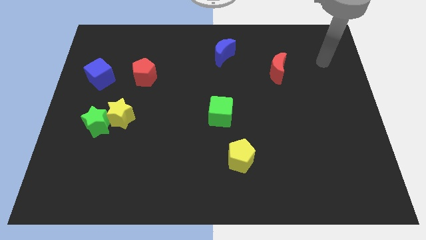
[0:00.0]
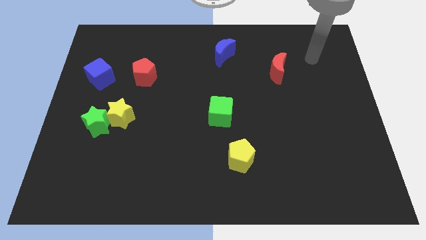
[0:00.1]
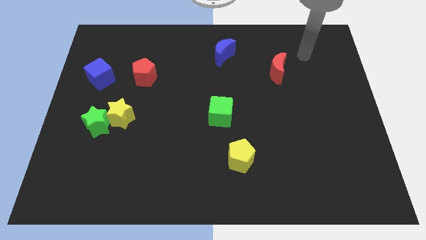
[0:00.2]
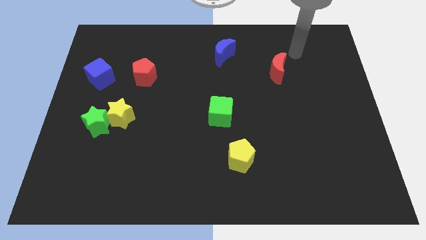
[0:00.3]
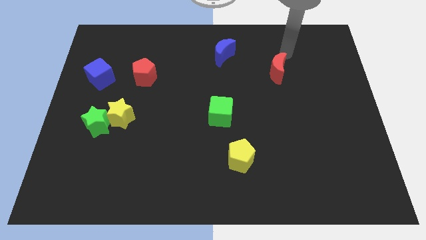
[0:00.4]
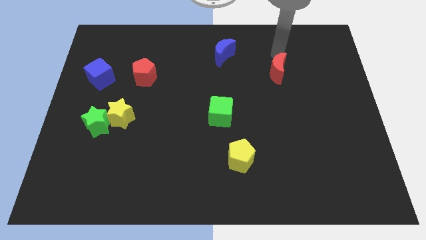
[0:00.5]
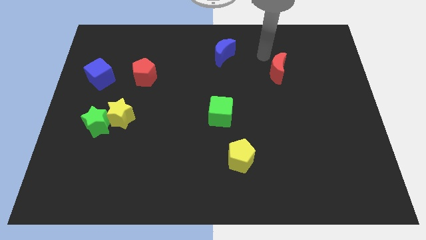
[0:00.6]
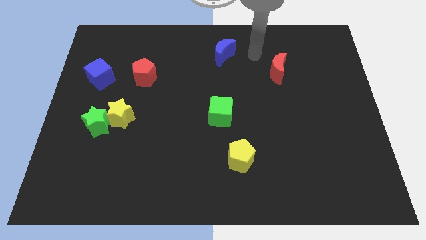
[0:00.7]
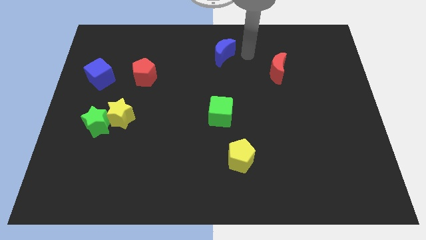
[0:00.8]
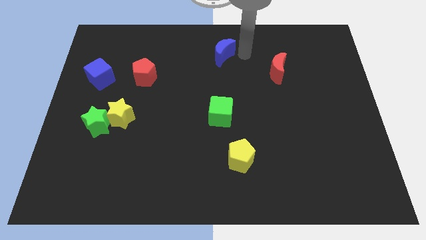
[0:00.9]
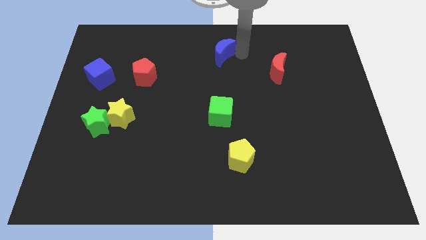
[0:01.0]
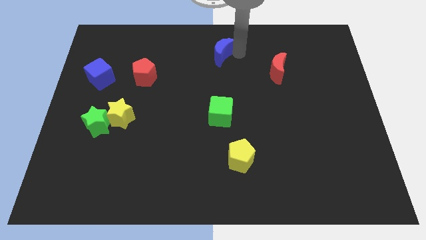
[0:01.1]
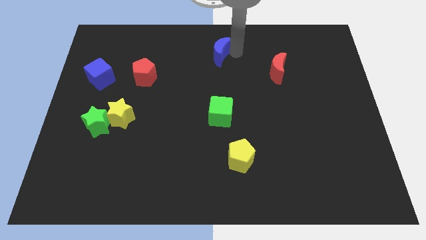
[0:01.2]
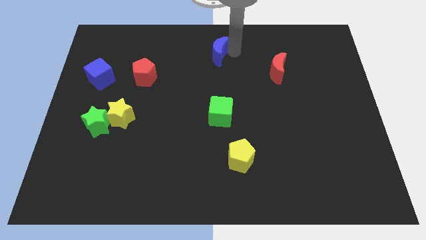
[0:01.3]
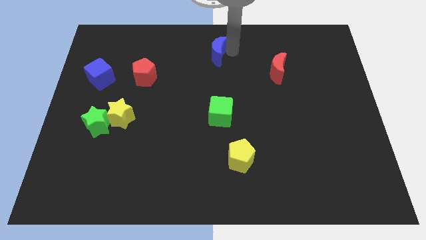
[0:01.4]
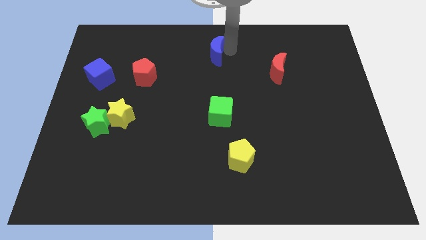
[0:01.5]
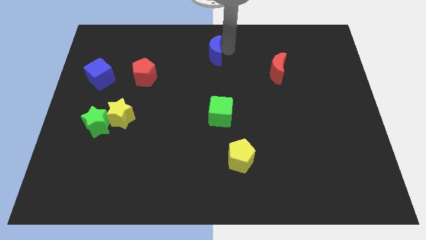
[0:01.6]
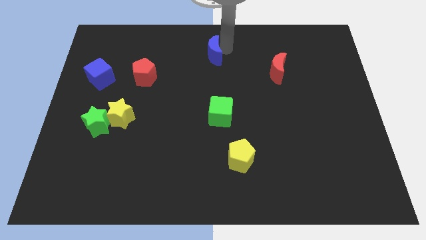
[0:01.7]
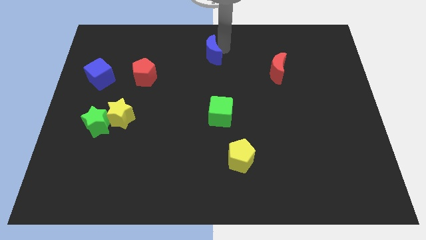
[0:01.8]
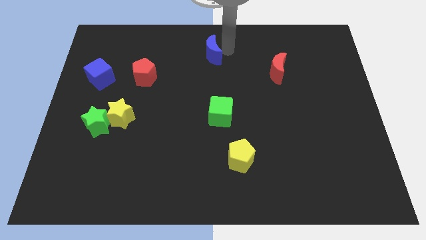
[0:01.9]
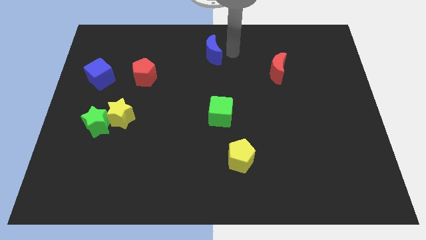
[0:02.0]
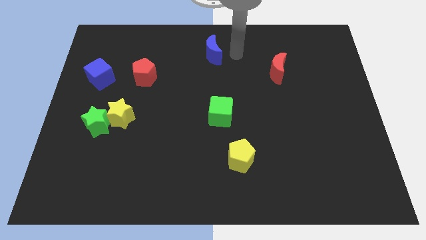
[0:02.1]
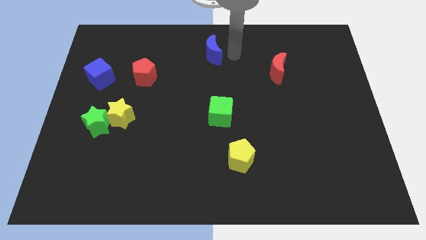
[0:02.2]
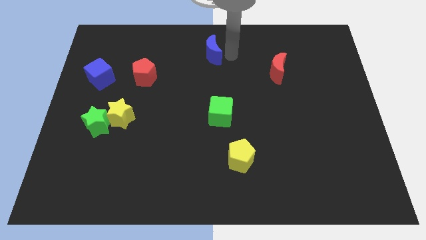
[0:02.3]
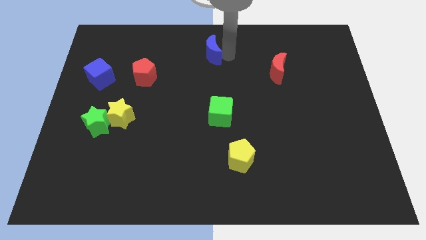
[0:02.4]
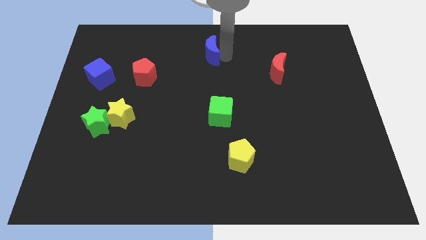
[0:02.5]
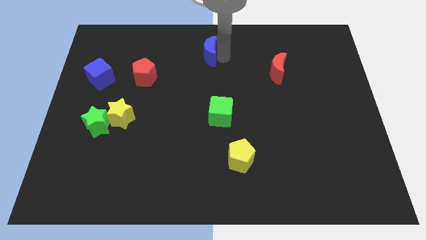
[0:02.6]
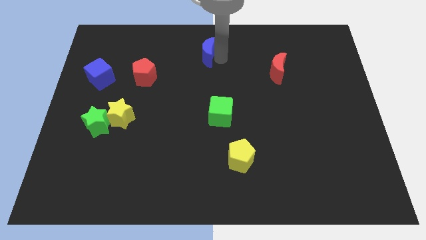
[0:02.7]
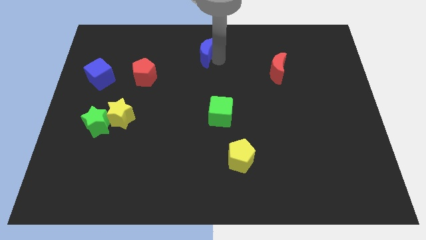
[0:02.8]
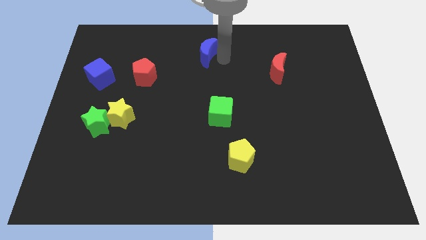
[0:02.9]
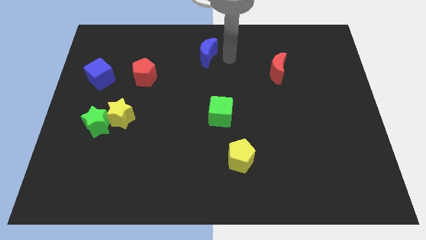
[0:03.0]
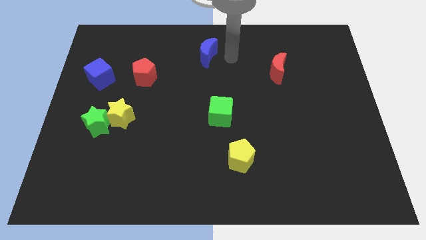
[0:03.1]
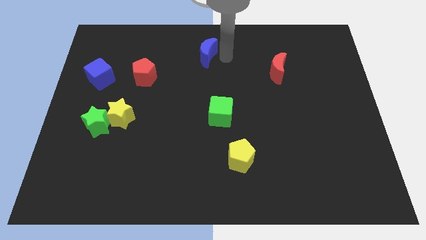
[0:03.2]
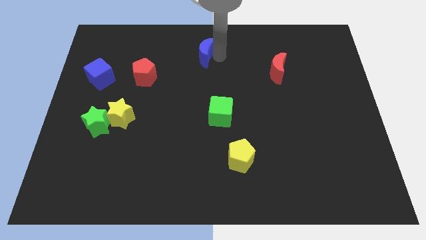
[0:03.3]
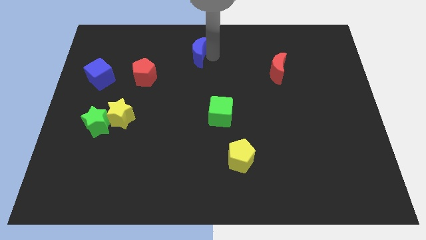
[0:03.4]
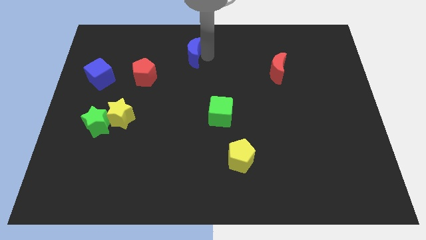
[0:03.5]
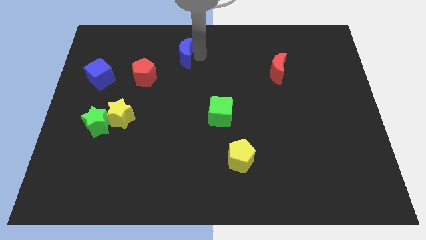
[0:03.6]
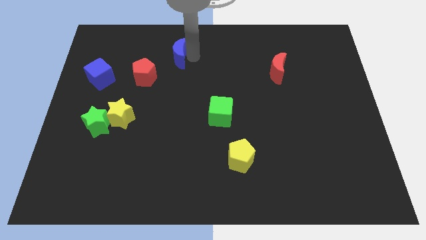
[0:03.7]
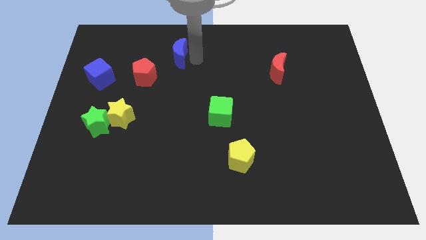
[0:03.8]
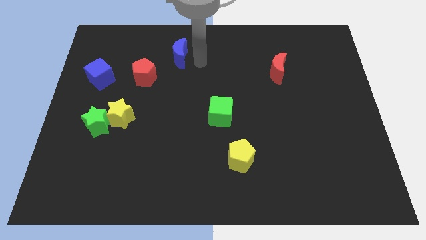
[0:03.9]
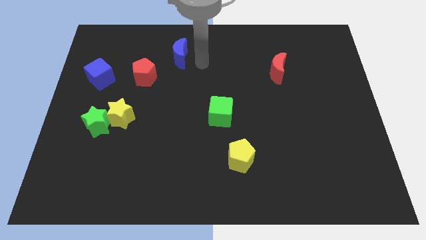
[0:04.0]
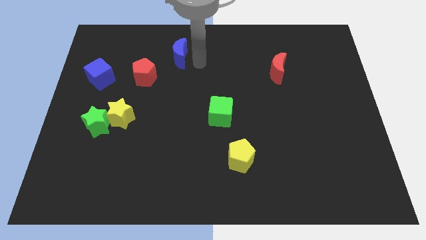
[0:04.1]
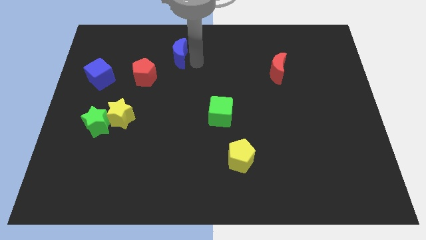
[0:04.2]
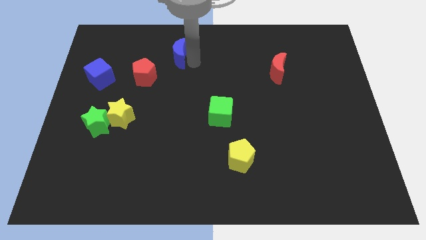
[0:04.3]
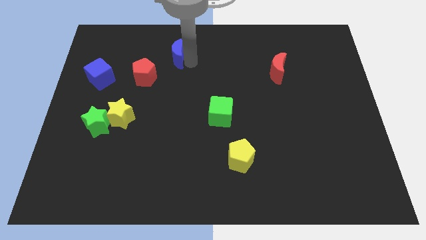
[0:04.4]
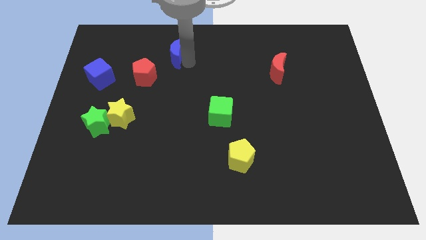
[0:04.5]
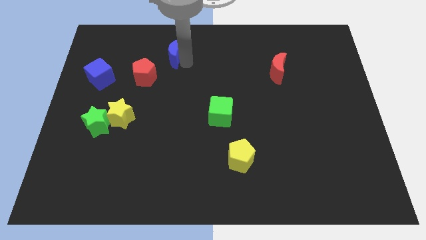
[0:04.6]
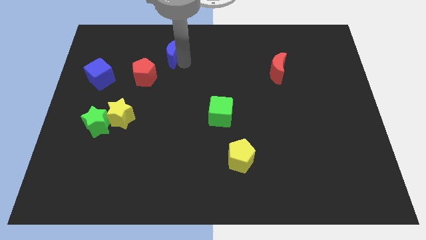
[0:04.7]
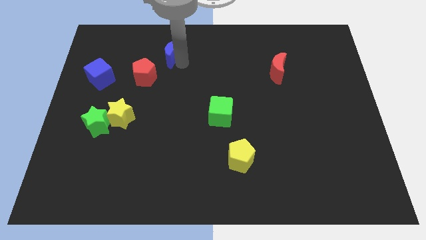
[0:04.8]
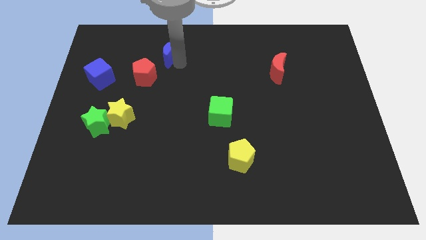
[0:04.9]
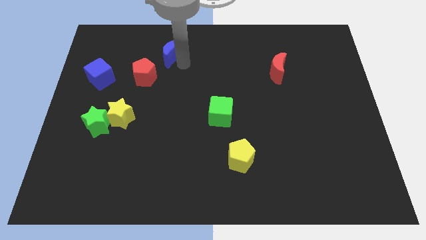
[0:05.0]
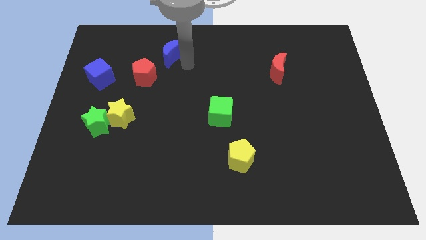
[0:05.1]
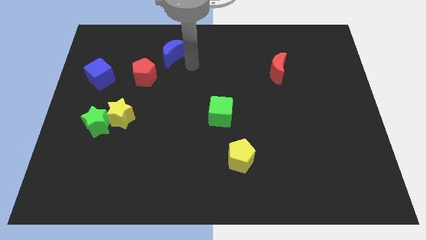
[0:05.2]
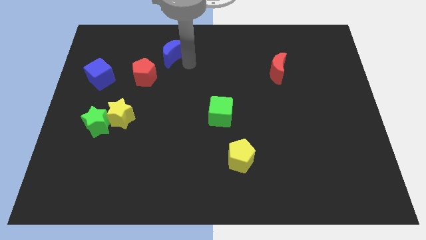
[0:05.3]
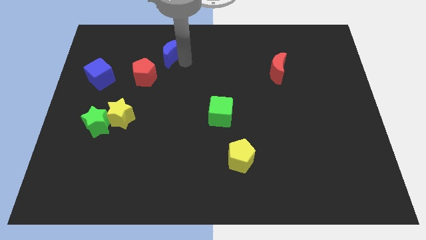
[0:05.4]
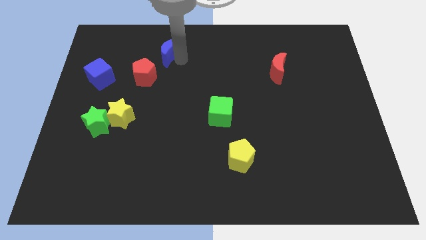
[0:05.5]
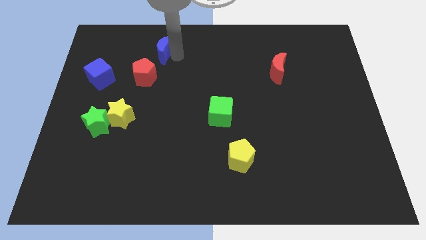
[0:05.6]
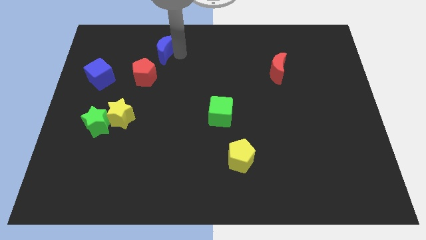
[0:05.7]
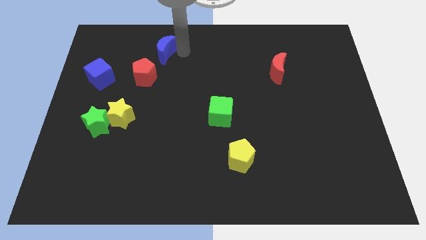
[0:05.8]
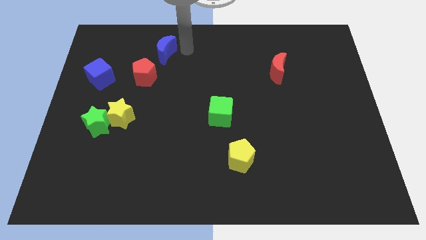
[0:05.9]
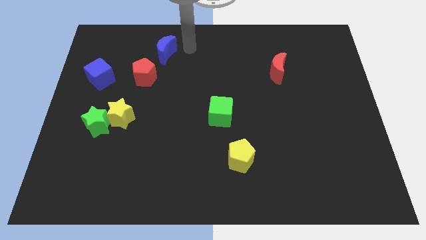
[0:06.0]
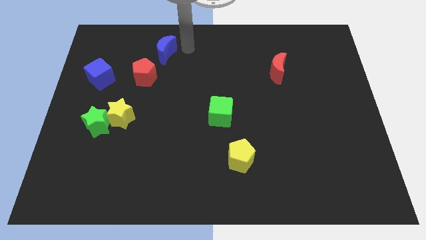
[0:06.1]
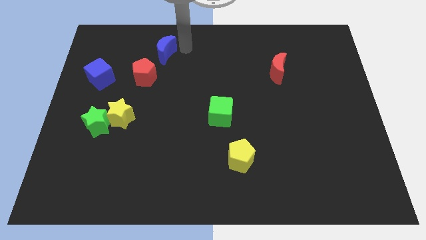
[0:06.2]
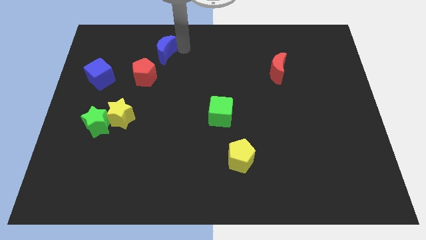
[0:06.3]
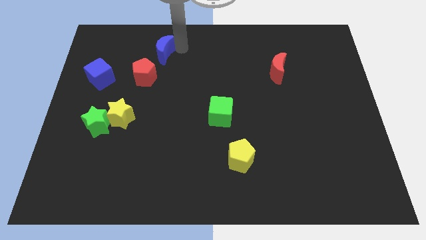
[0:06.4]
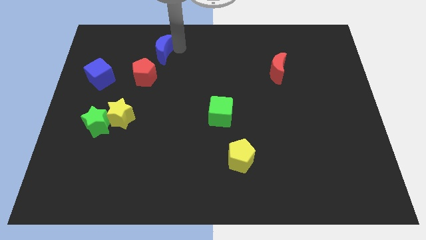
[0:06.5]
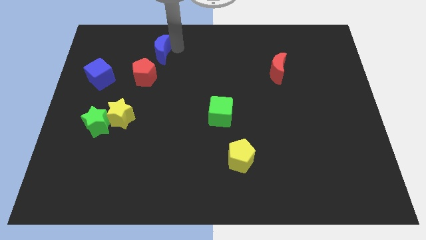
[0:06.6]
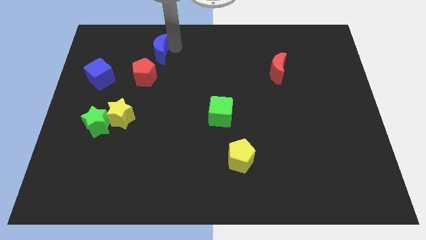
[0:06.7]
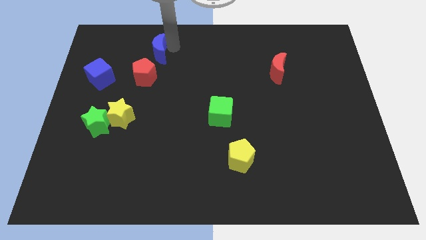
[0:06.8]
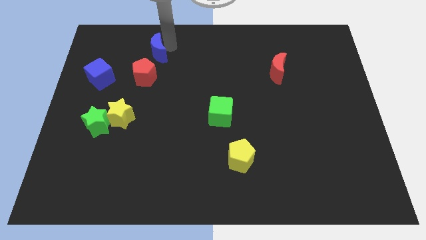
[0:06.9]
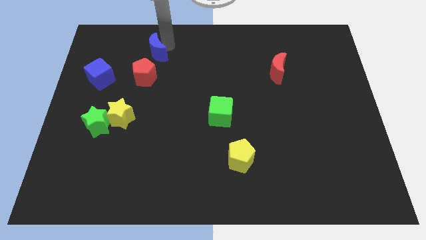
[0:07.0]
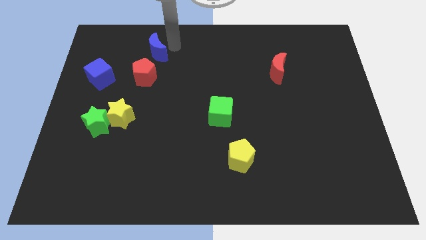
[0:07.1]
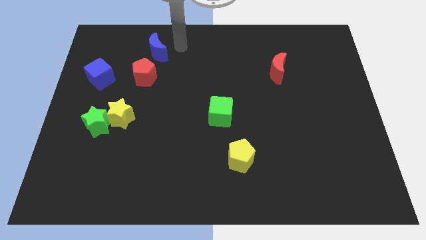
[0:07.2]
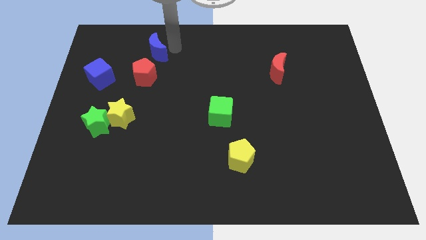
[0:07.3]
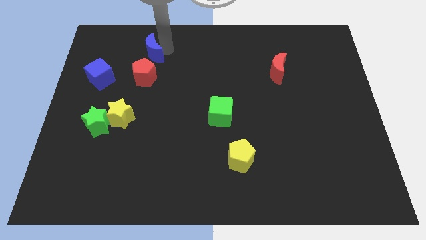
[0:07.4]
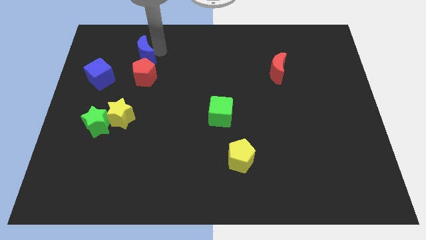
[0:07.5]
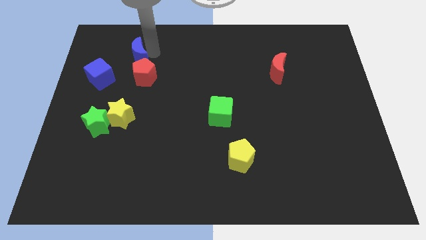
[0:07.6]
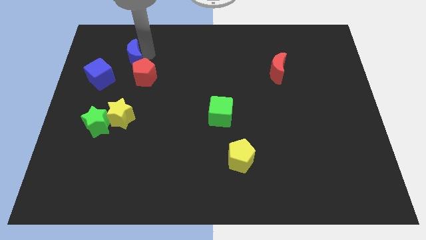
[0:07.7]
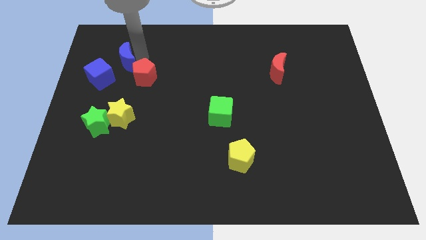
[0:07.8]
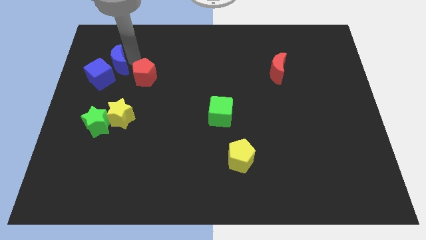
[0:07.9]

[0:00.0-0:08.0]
slide the blue moon just left of the red pentagon
